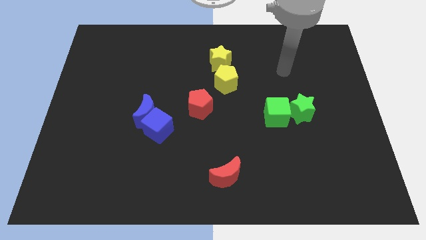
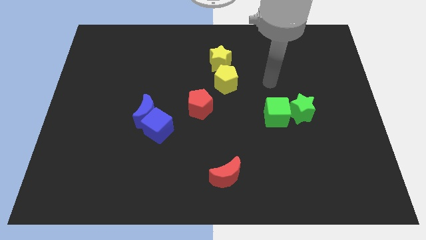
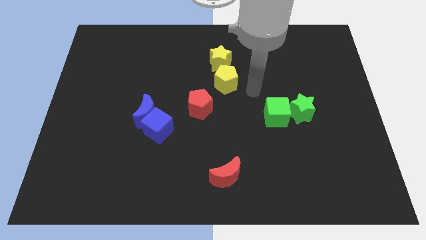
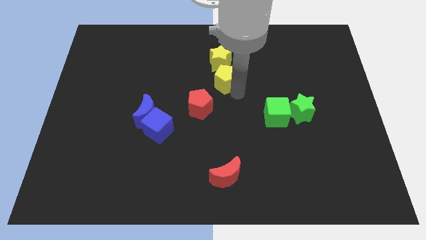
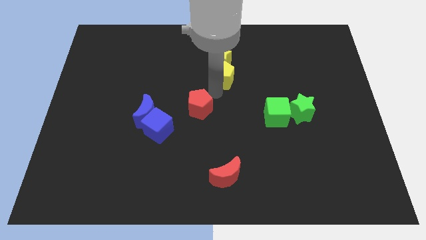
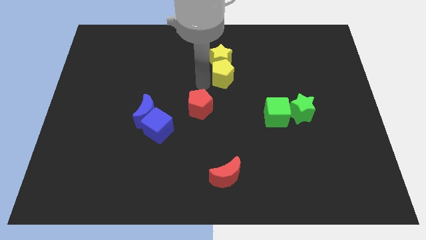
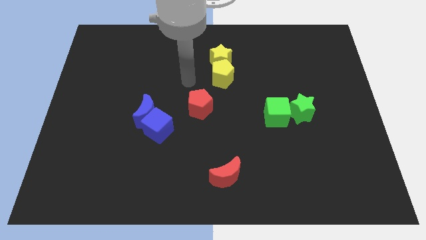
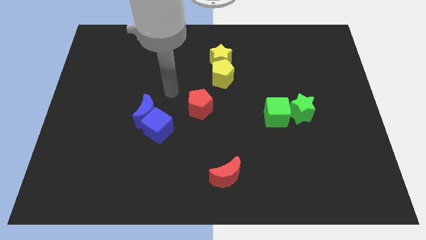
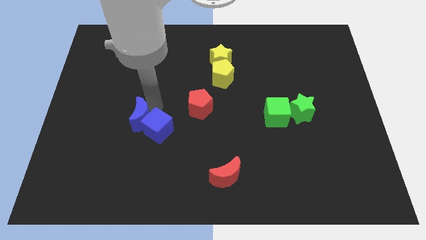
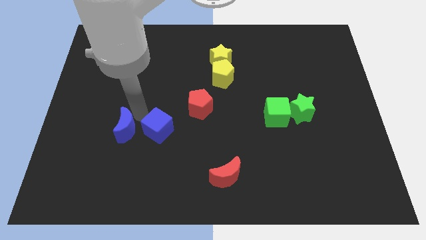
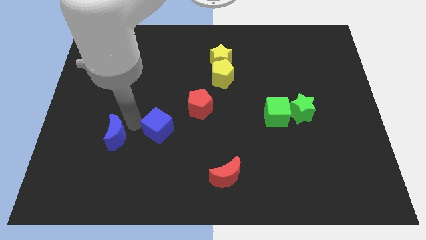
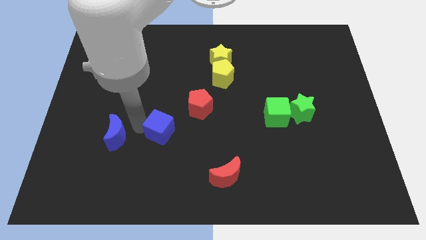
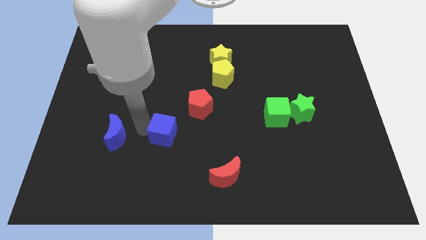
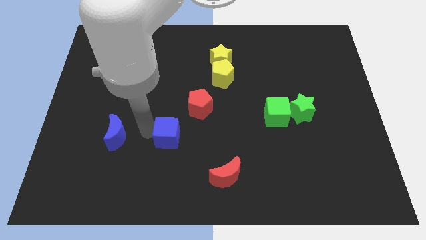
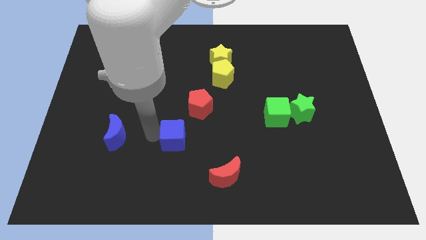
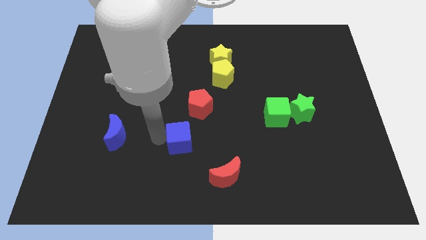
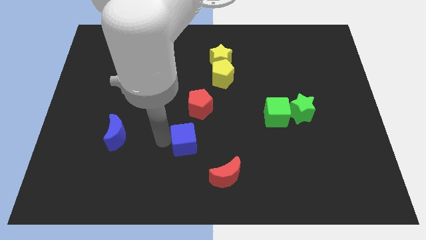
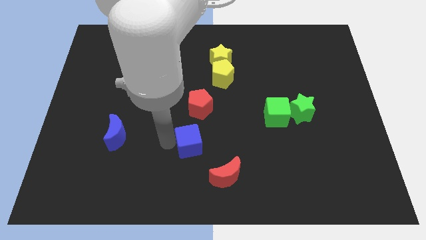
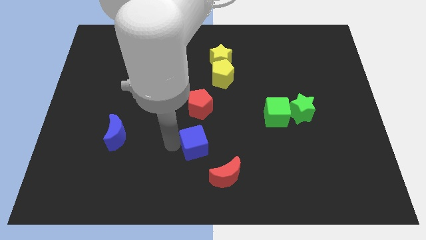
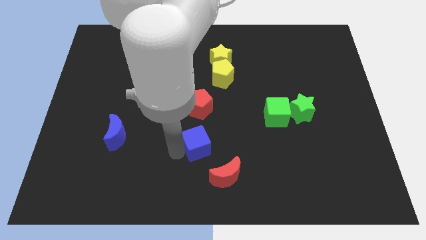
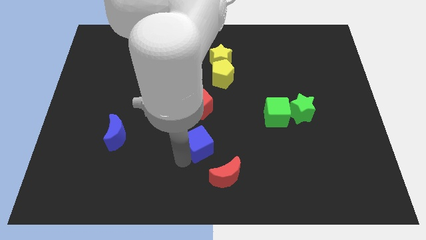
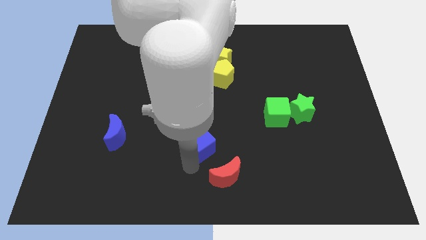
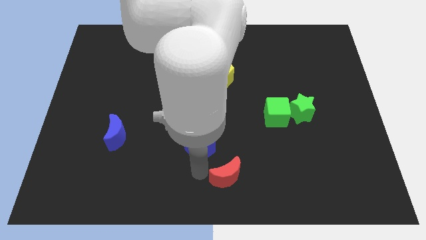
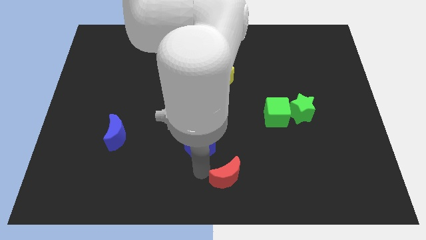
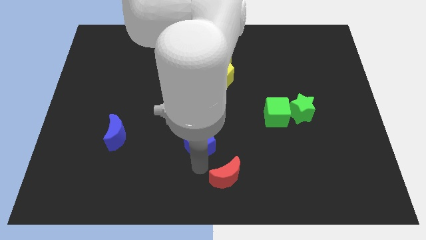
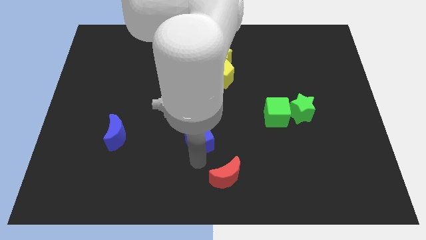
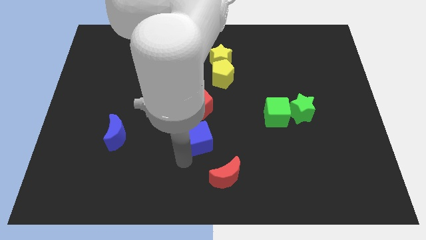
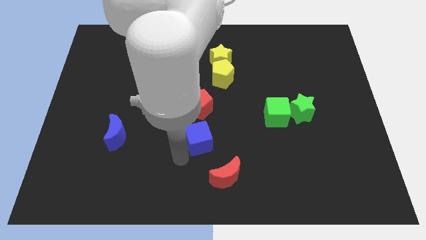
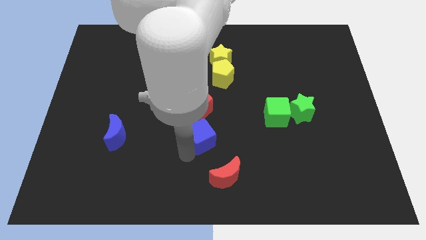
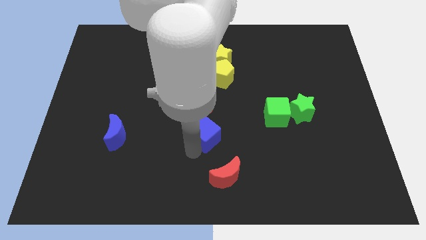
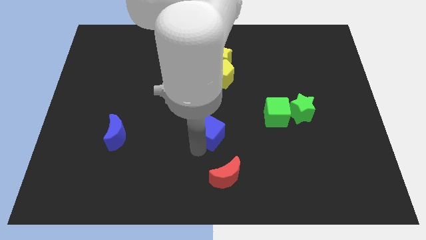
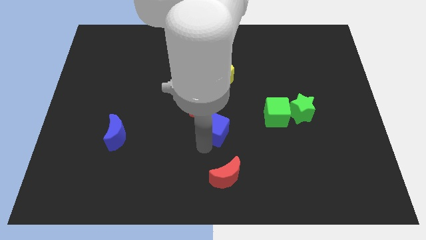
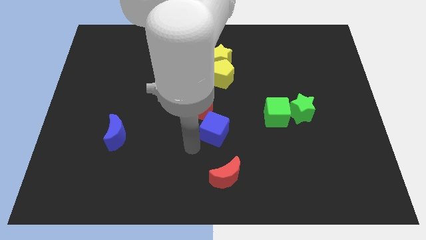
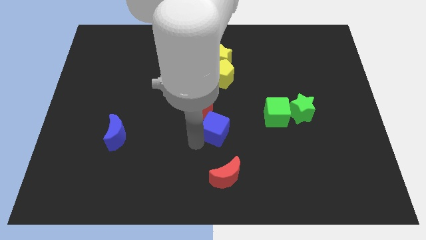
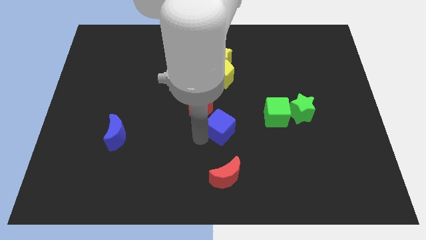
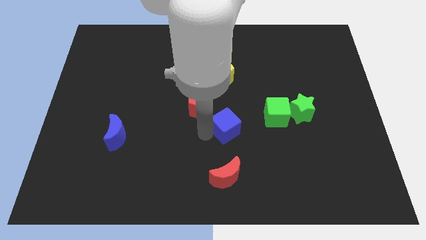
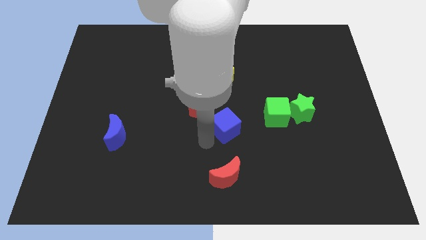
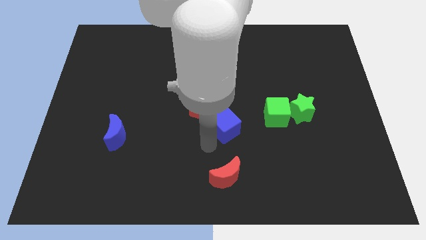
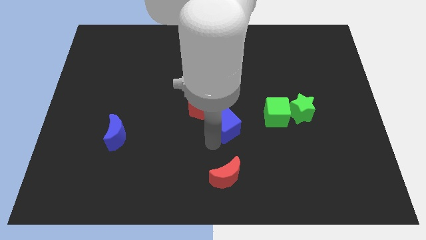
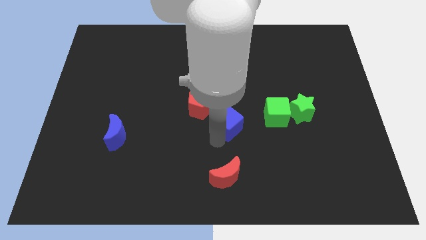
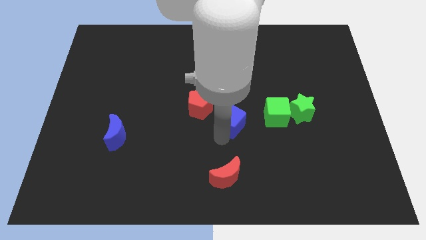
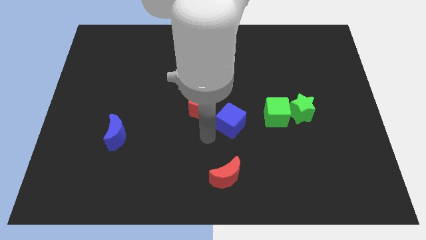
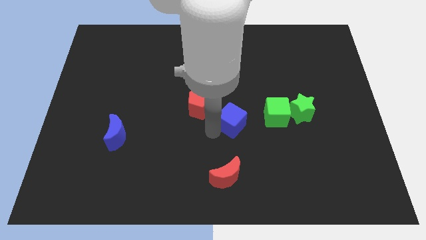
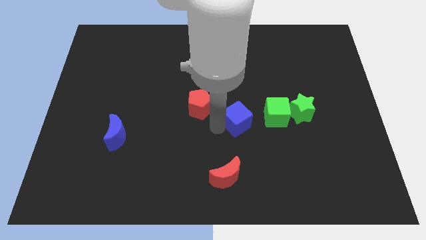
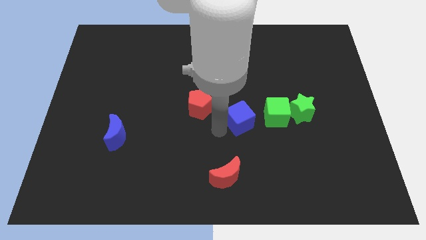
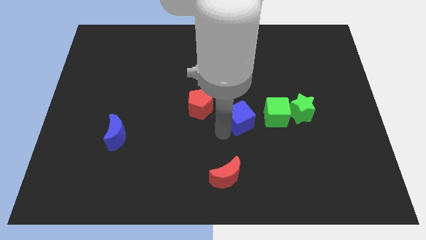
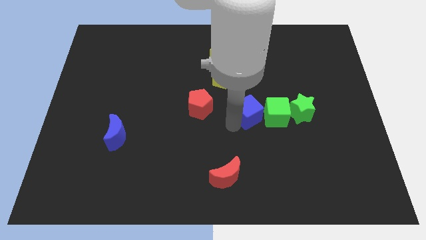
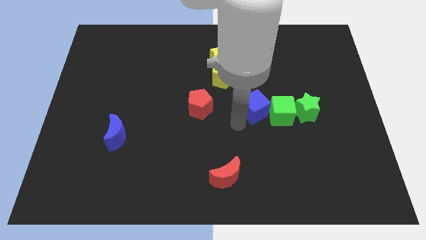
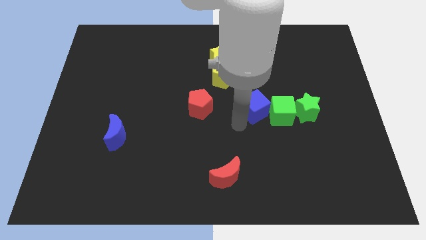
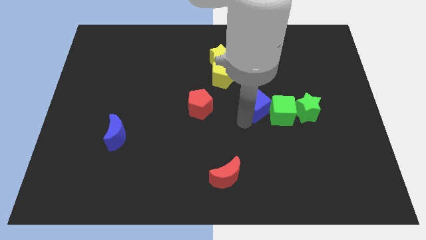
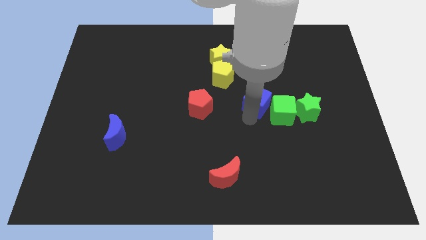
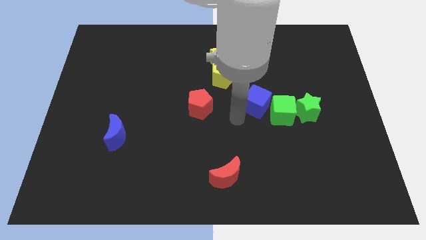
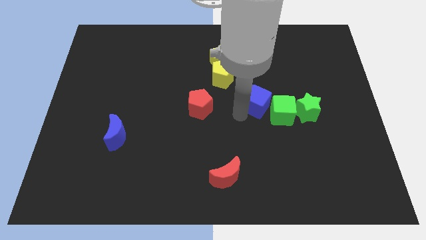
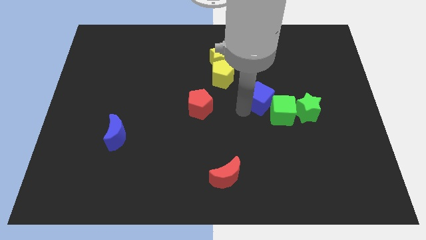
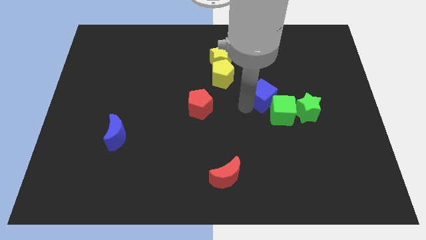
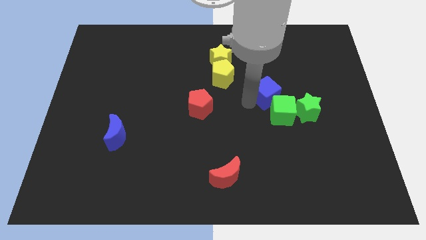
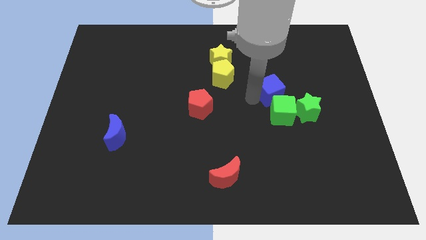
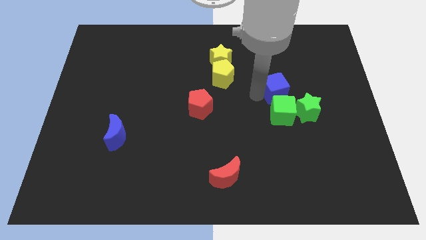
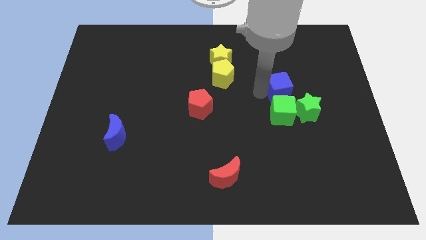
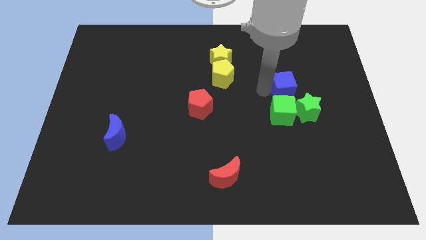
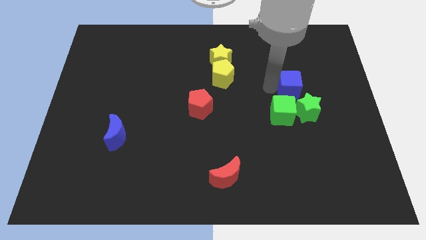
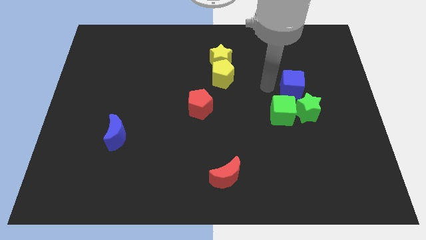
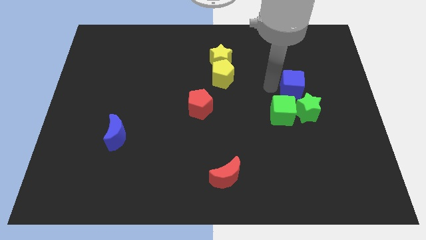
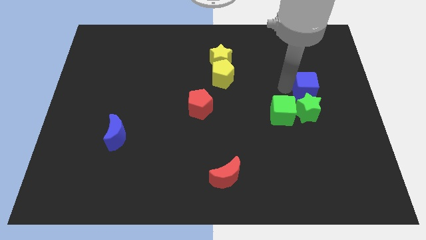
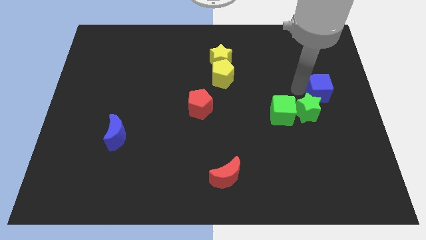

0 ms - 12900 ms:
push the blue cube to the right side
